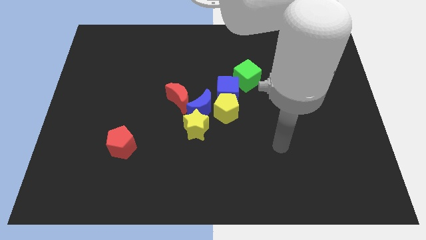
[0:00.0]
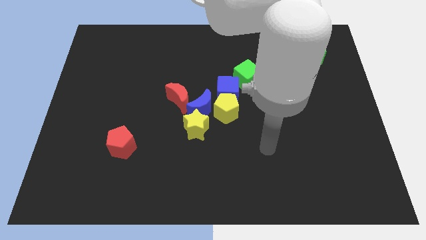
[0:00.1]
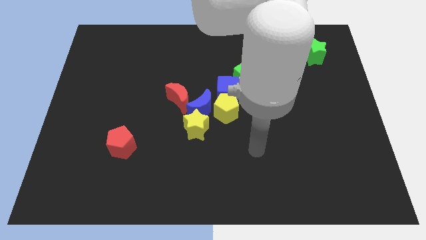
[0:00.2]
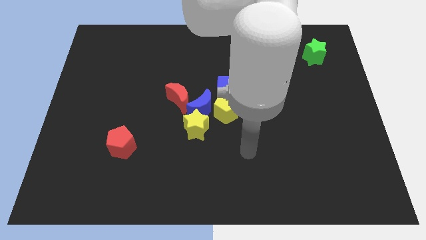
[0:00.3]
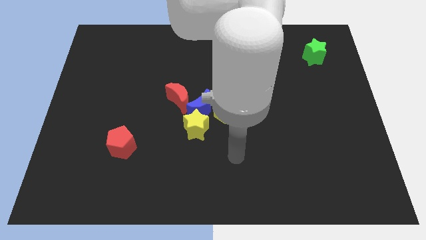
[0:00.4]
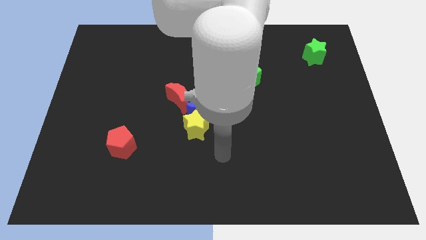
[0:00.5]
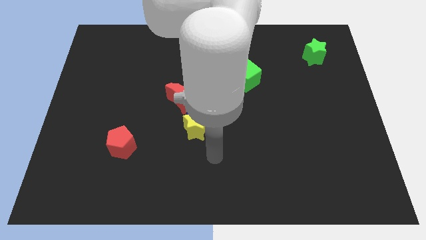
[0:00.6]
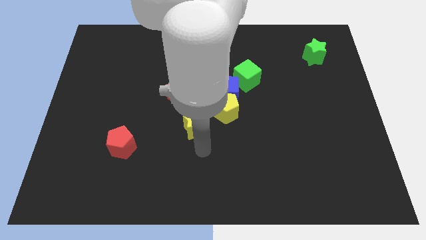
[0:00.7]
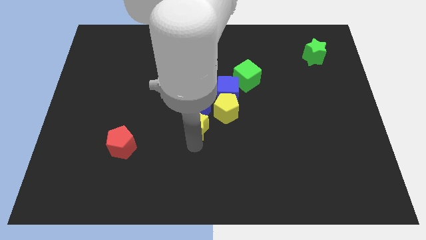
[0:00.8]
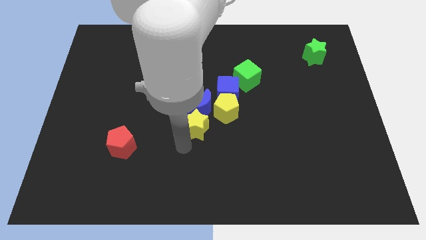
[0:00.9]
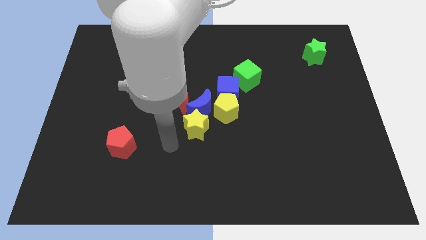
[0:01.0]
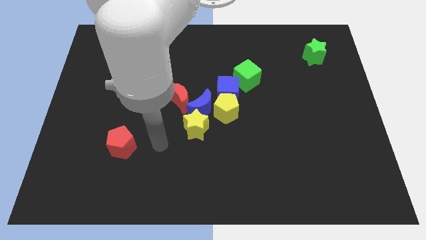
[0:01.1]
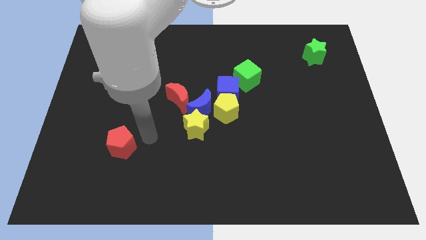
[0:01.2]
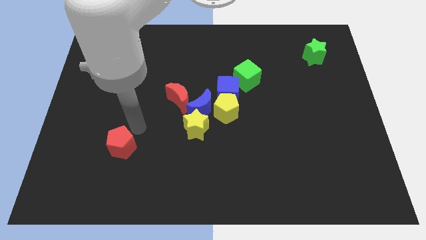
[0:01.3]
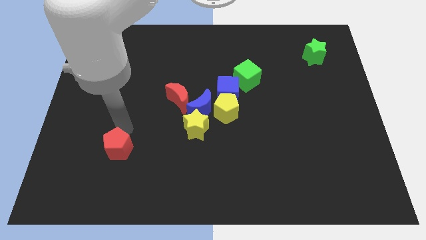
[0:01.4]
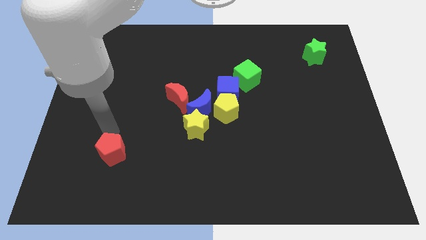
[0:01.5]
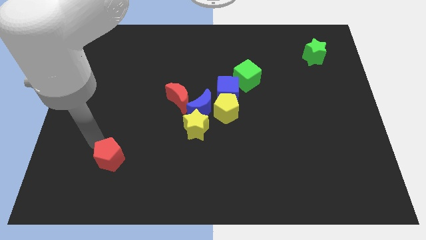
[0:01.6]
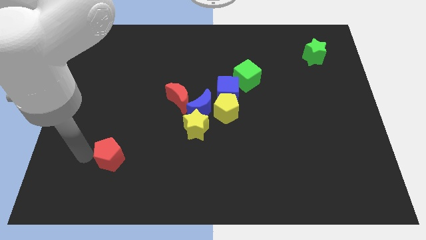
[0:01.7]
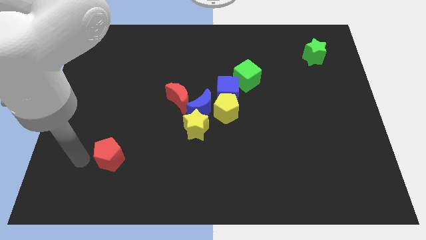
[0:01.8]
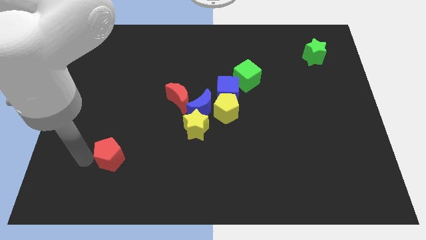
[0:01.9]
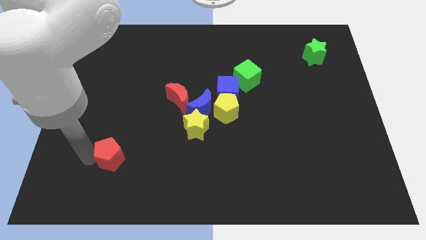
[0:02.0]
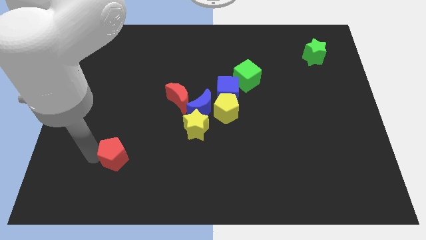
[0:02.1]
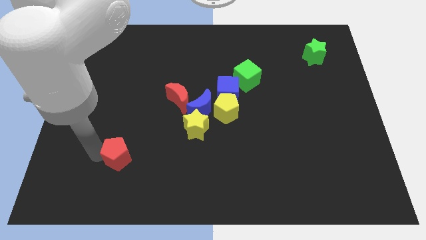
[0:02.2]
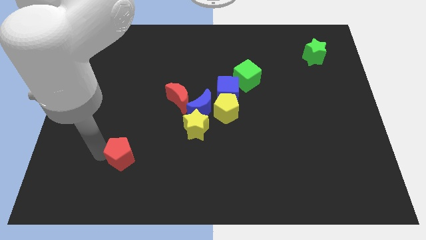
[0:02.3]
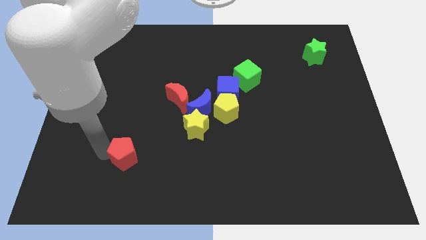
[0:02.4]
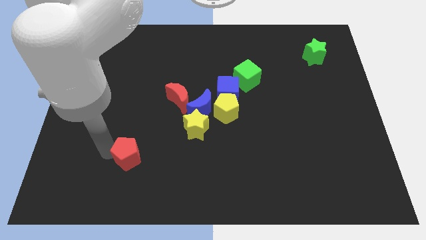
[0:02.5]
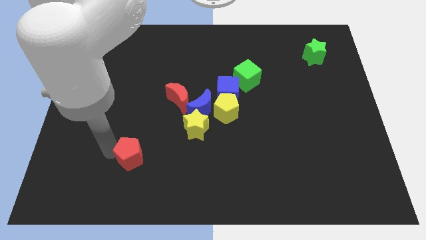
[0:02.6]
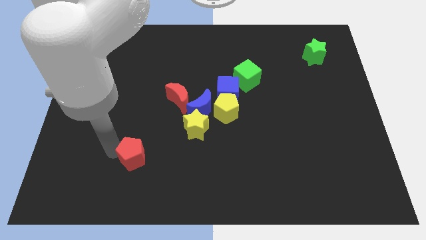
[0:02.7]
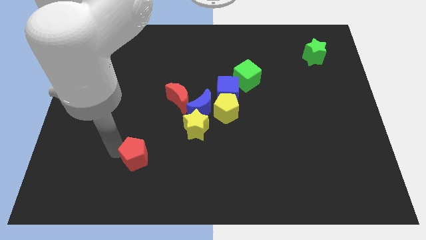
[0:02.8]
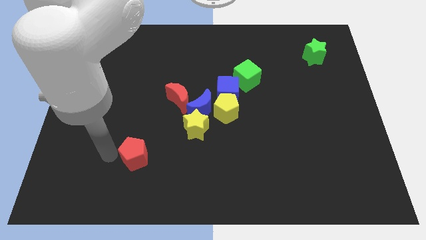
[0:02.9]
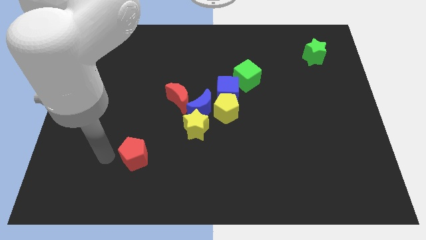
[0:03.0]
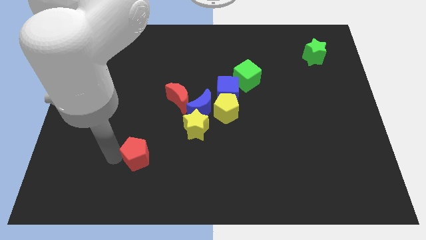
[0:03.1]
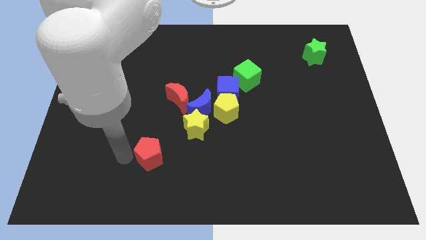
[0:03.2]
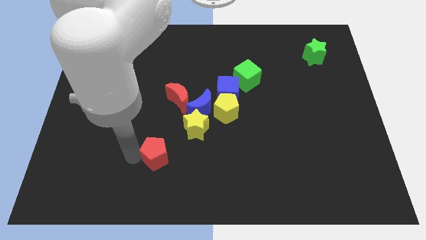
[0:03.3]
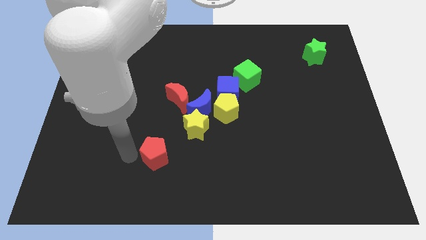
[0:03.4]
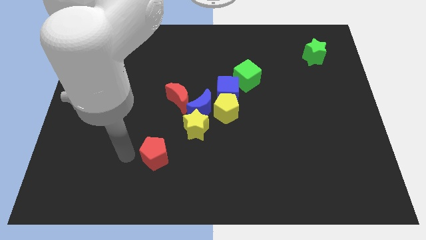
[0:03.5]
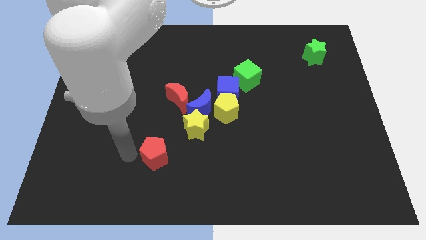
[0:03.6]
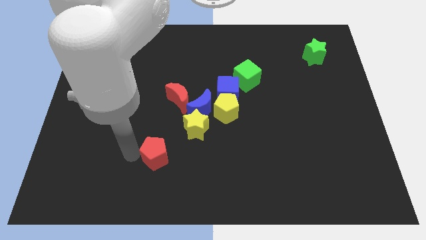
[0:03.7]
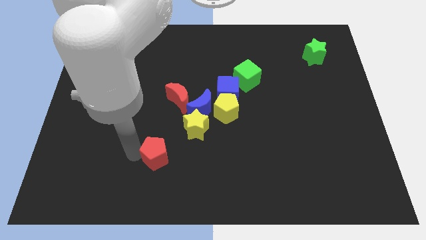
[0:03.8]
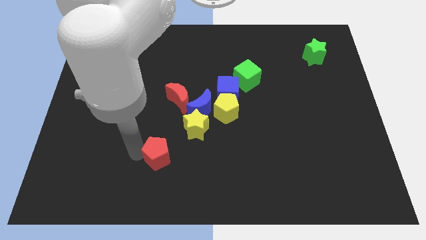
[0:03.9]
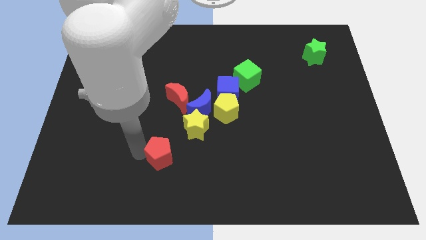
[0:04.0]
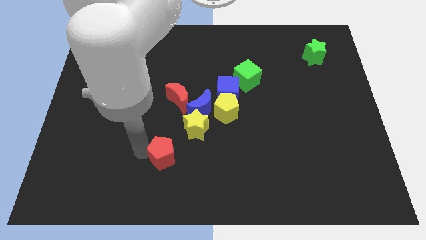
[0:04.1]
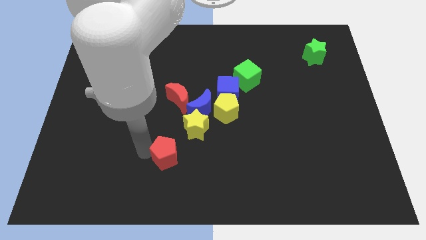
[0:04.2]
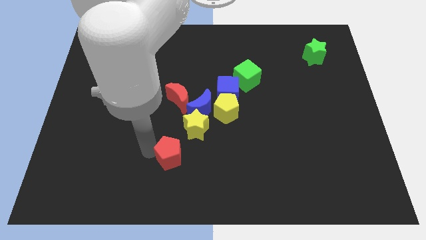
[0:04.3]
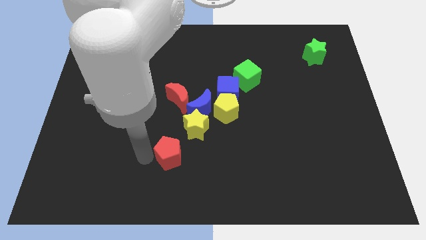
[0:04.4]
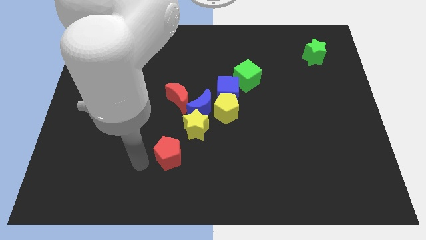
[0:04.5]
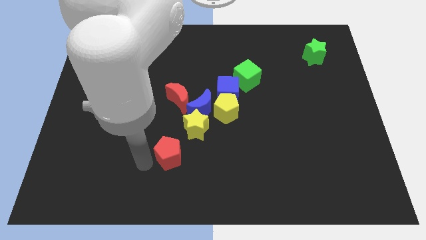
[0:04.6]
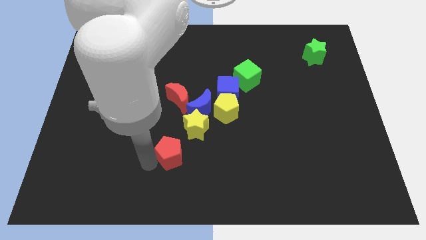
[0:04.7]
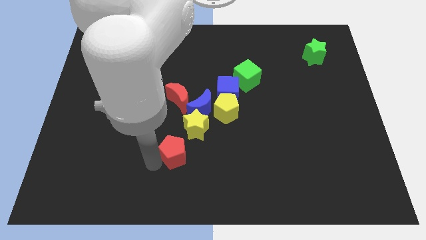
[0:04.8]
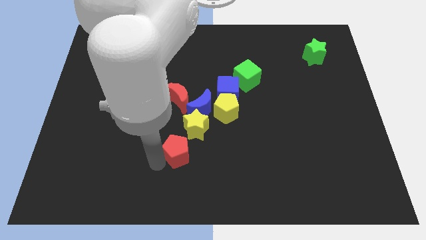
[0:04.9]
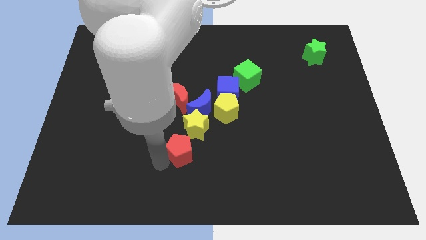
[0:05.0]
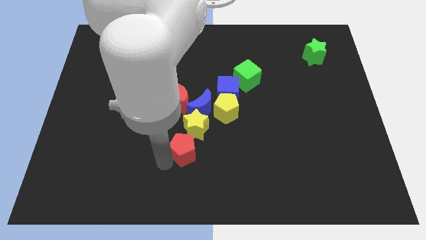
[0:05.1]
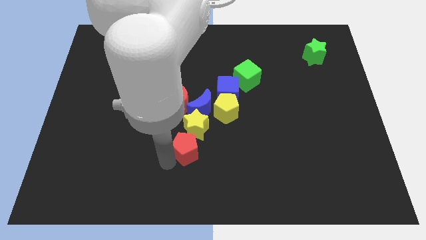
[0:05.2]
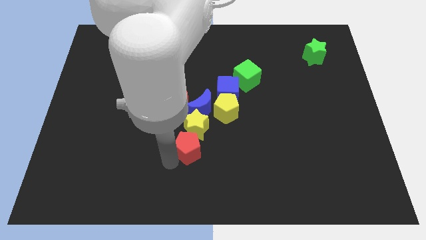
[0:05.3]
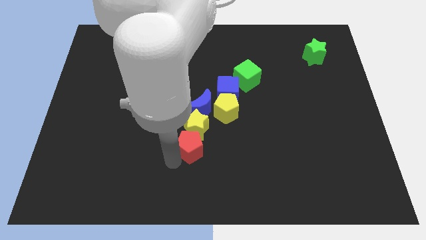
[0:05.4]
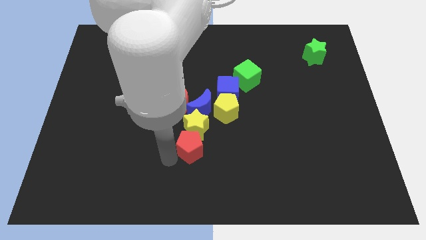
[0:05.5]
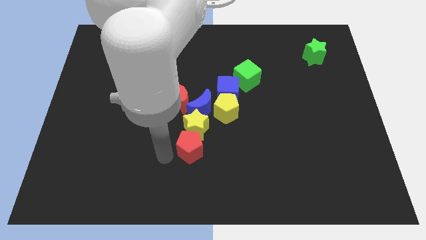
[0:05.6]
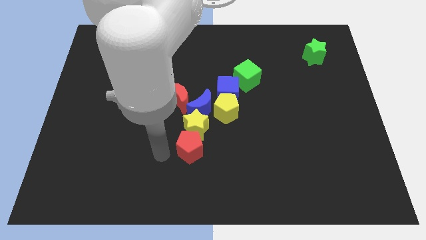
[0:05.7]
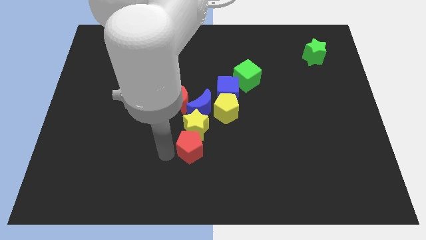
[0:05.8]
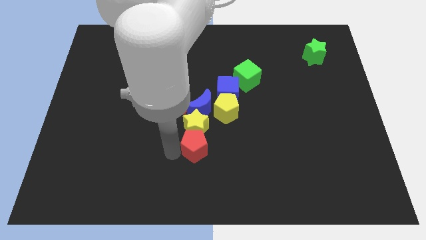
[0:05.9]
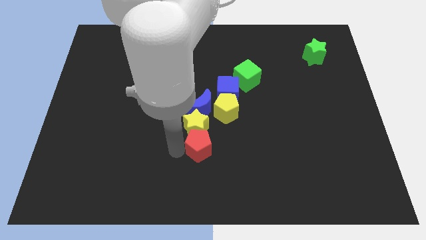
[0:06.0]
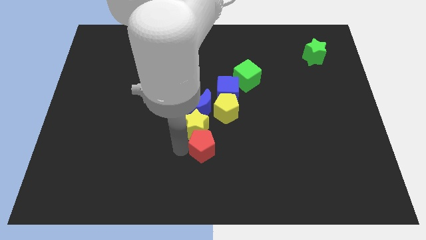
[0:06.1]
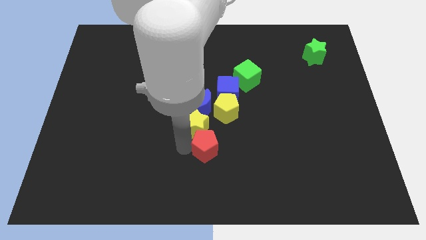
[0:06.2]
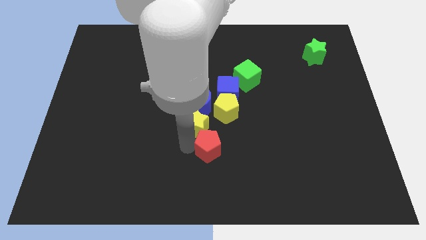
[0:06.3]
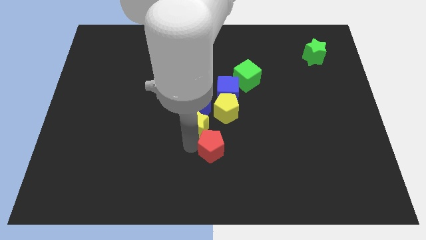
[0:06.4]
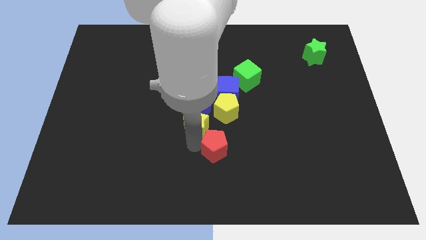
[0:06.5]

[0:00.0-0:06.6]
slide the red pentagon to the right

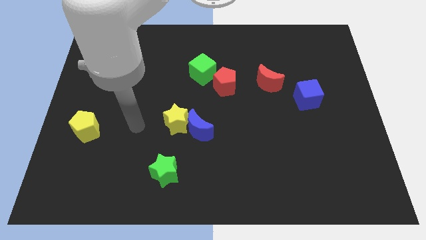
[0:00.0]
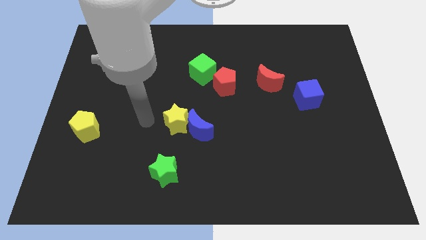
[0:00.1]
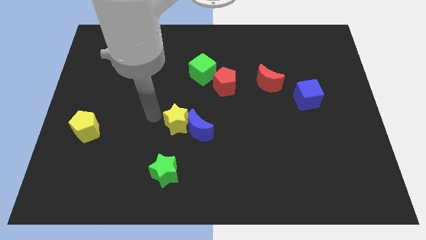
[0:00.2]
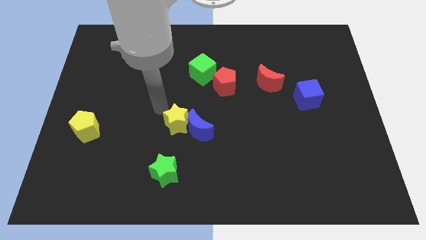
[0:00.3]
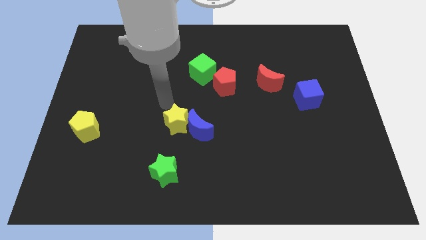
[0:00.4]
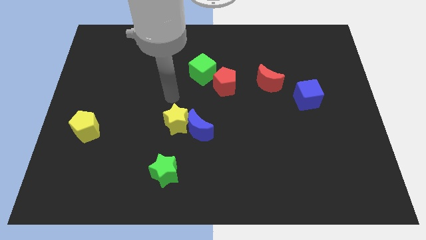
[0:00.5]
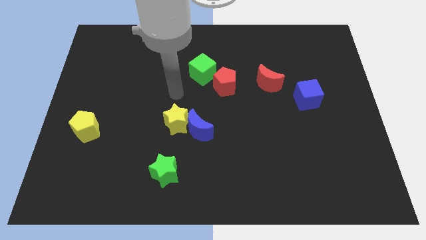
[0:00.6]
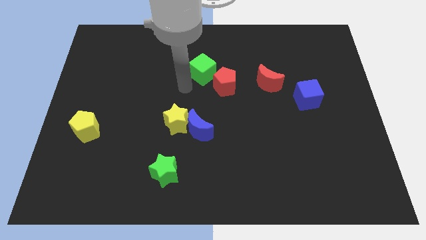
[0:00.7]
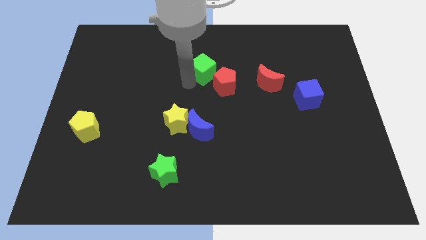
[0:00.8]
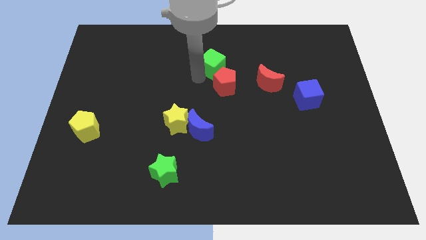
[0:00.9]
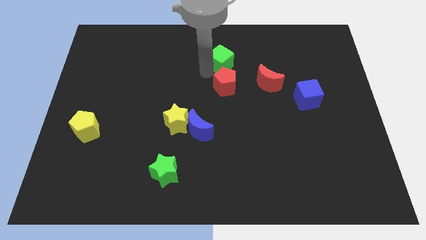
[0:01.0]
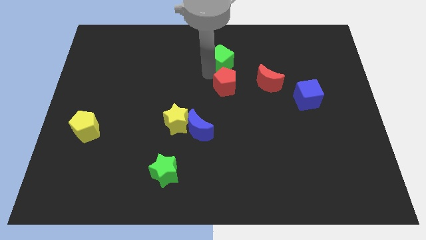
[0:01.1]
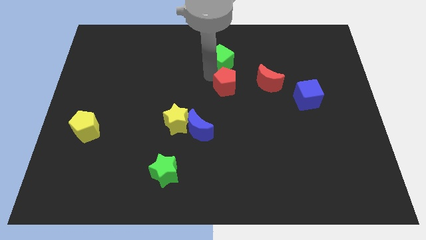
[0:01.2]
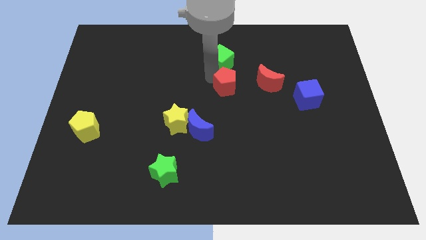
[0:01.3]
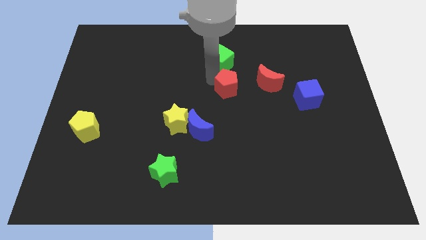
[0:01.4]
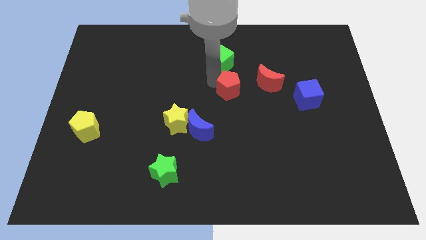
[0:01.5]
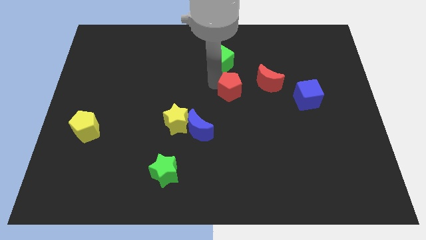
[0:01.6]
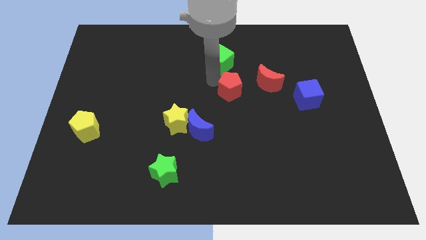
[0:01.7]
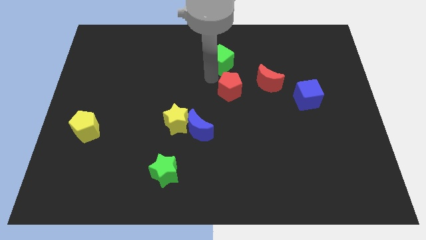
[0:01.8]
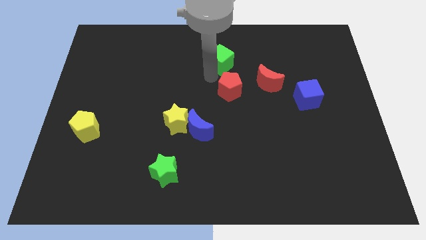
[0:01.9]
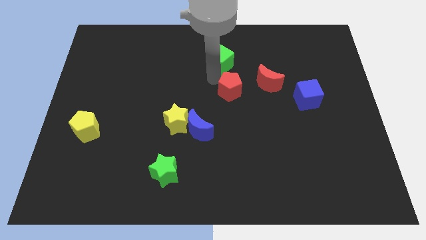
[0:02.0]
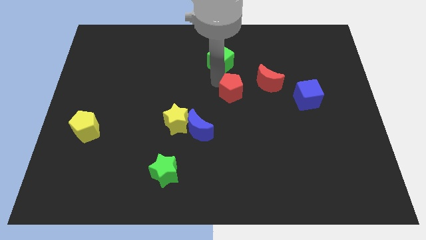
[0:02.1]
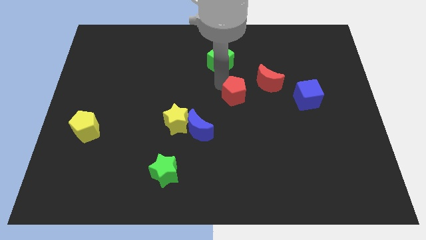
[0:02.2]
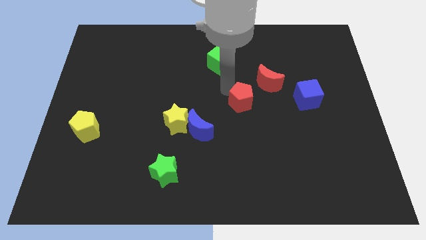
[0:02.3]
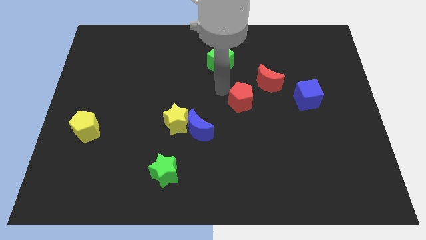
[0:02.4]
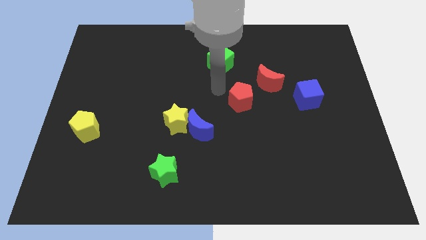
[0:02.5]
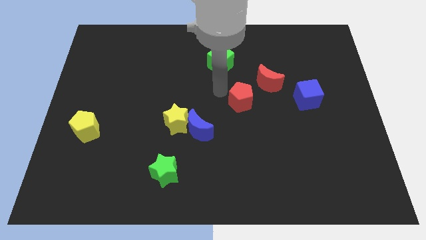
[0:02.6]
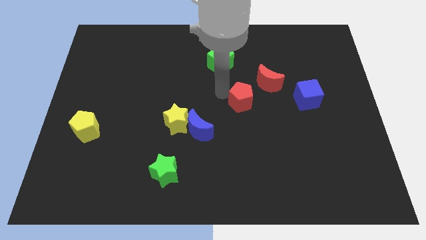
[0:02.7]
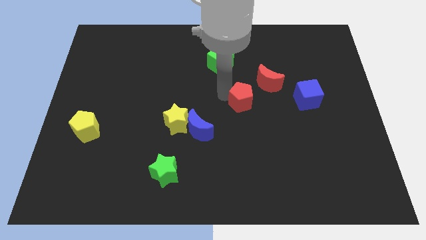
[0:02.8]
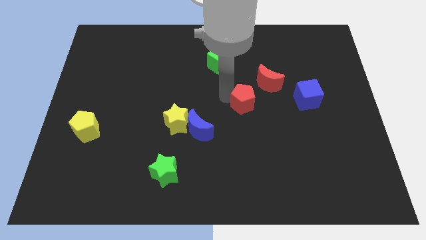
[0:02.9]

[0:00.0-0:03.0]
push the red pentagon diagonally downwards and to the right a little
